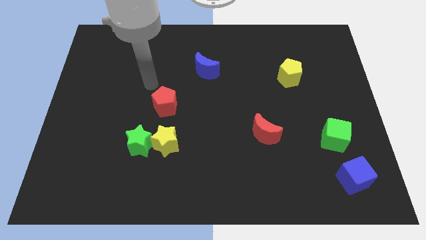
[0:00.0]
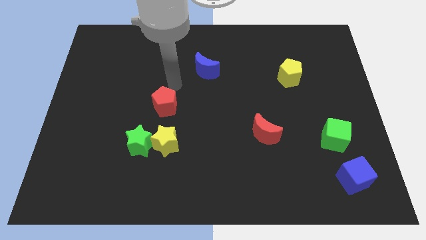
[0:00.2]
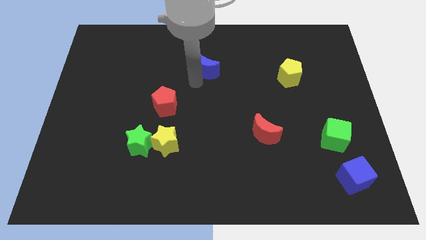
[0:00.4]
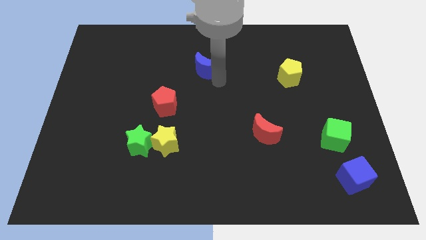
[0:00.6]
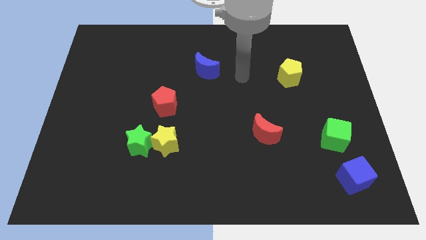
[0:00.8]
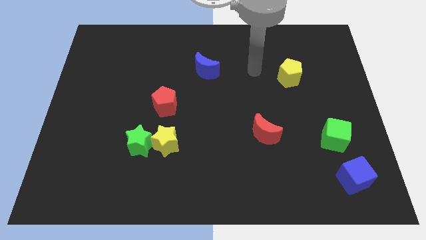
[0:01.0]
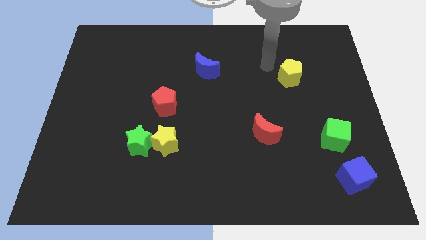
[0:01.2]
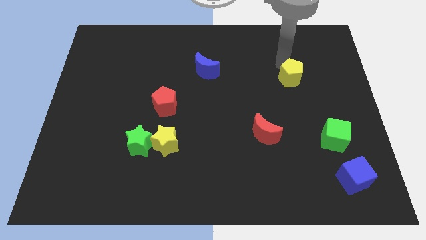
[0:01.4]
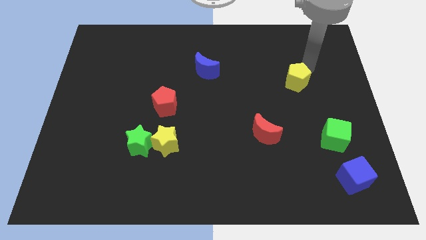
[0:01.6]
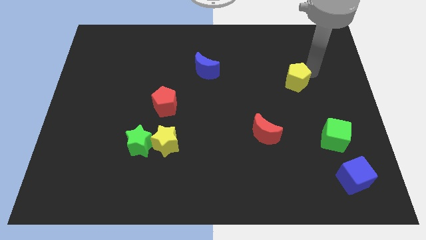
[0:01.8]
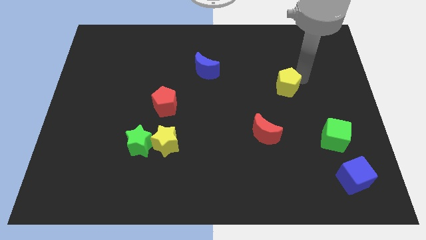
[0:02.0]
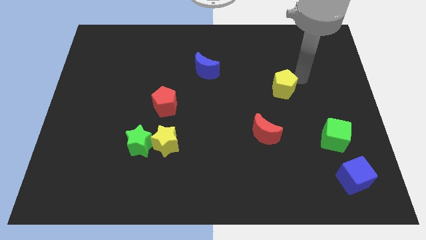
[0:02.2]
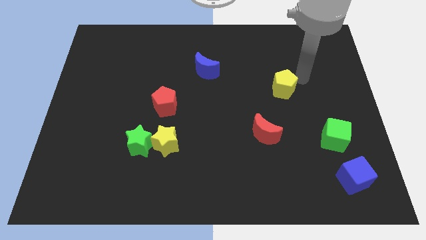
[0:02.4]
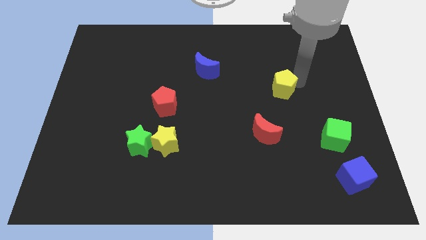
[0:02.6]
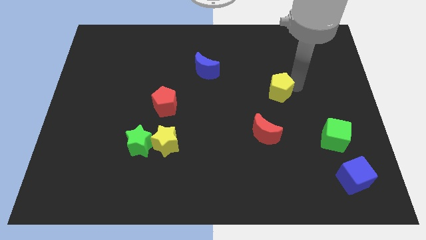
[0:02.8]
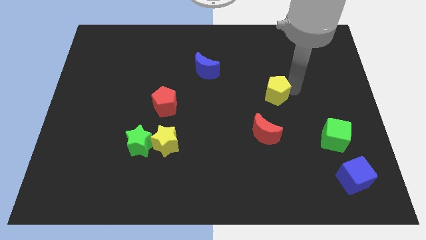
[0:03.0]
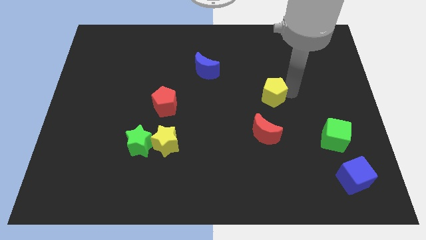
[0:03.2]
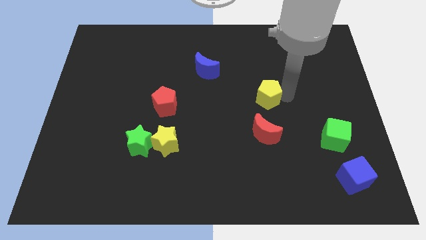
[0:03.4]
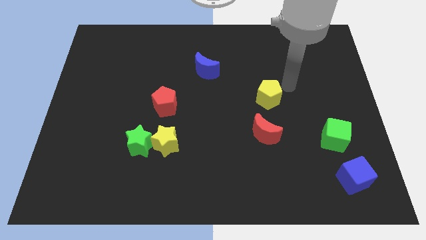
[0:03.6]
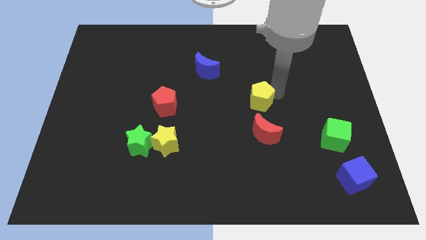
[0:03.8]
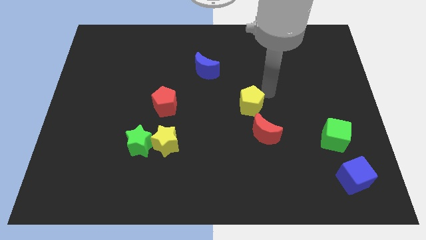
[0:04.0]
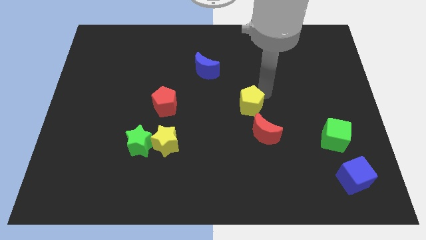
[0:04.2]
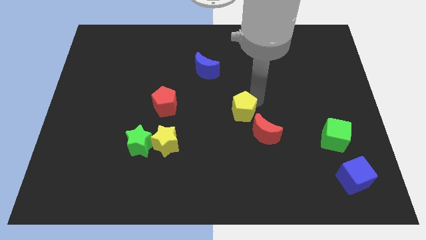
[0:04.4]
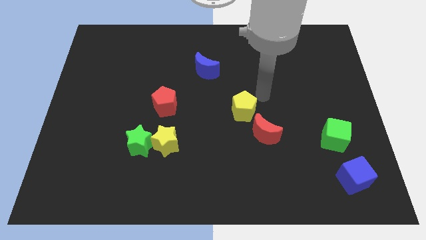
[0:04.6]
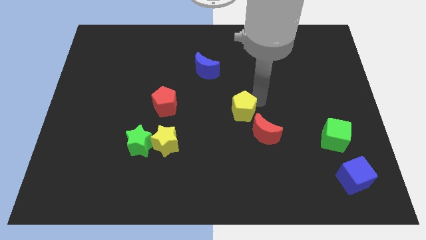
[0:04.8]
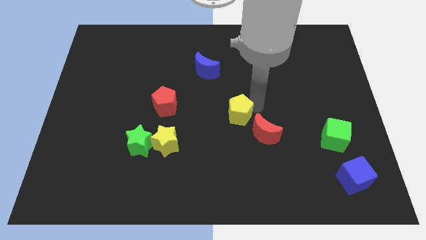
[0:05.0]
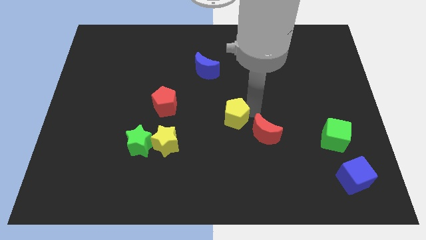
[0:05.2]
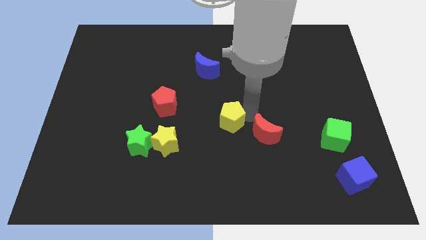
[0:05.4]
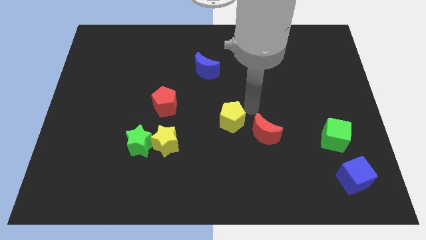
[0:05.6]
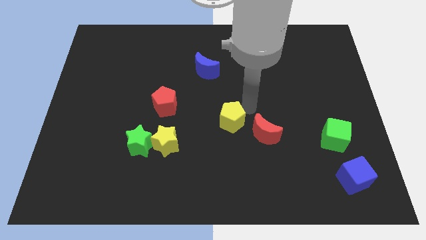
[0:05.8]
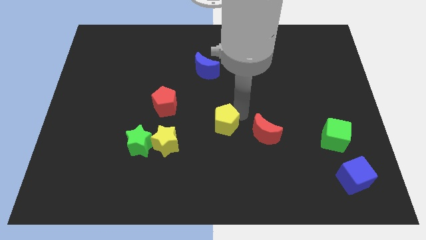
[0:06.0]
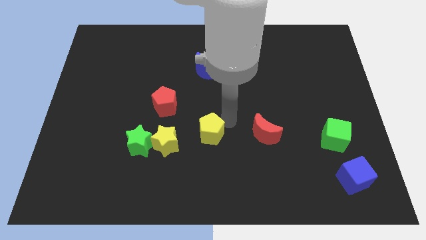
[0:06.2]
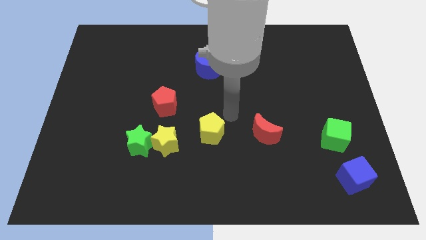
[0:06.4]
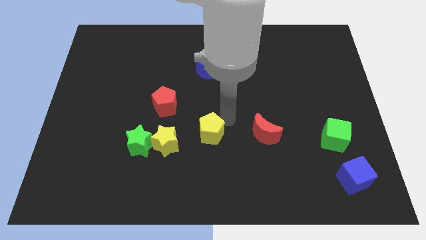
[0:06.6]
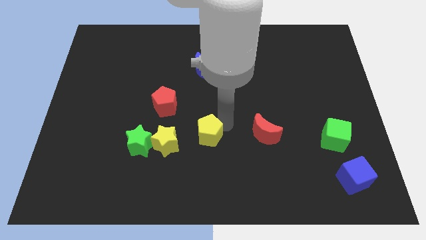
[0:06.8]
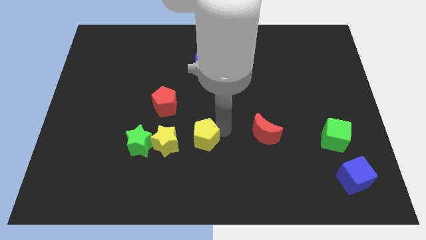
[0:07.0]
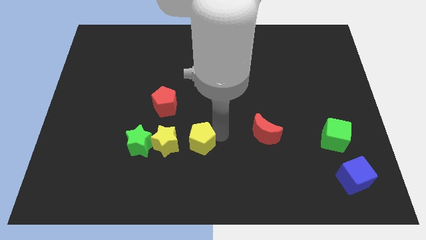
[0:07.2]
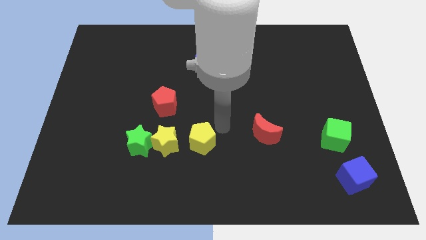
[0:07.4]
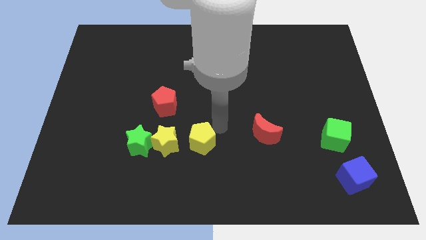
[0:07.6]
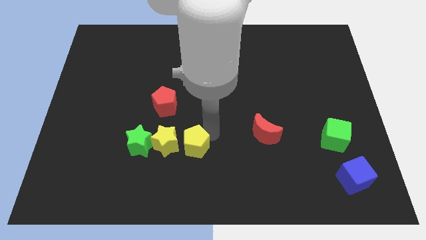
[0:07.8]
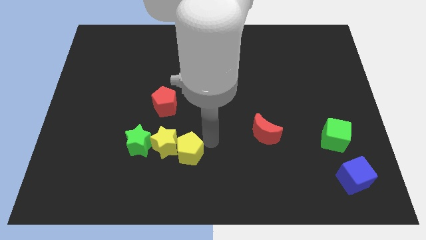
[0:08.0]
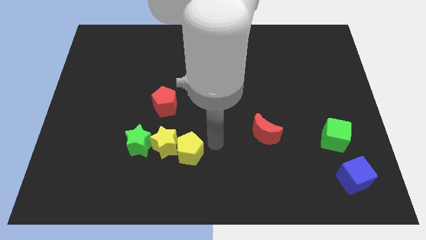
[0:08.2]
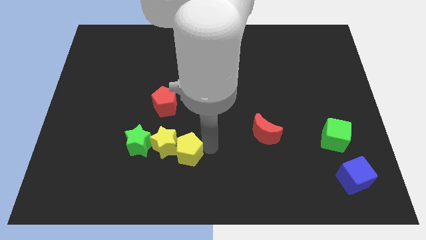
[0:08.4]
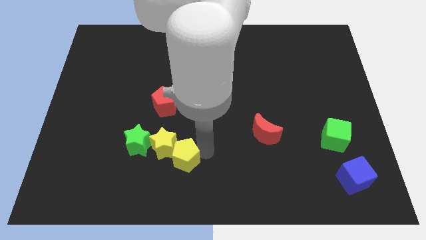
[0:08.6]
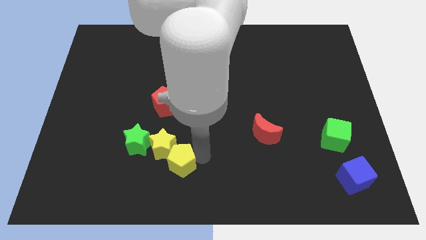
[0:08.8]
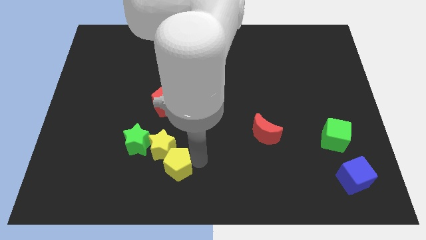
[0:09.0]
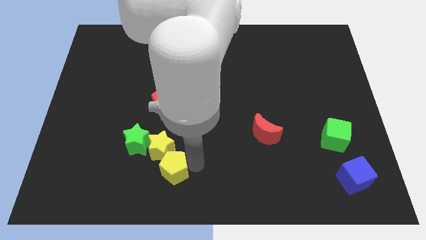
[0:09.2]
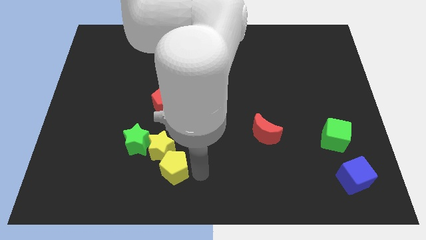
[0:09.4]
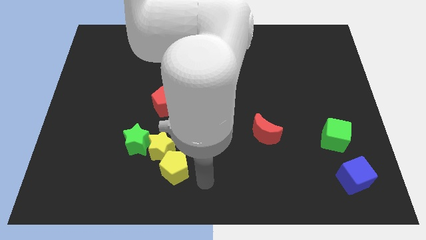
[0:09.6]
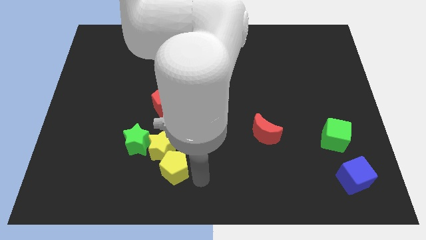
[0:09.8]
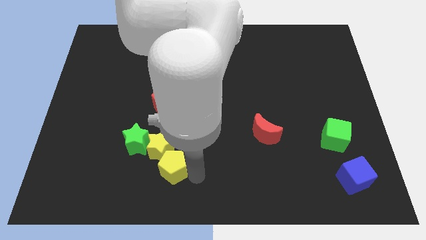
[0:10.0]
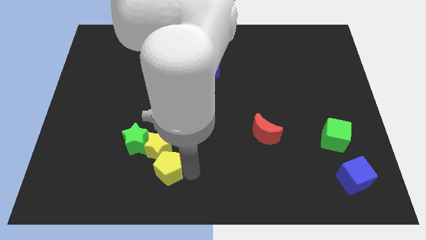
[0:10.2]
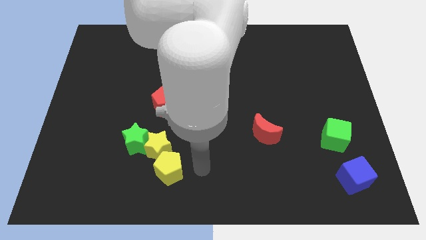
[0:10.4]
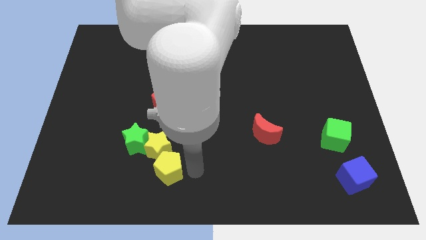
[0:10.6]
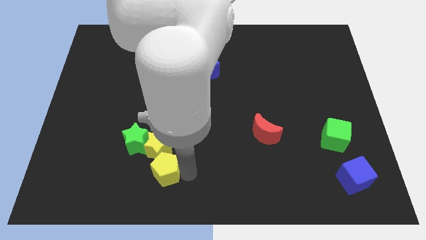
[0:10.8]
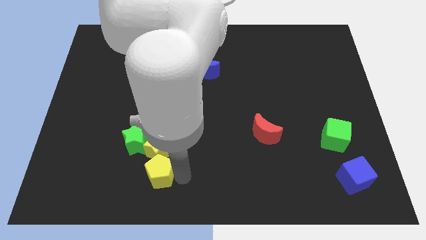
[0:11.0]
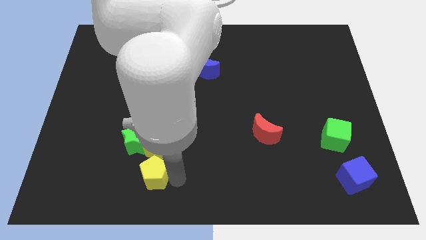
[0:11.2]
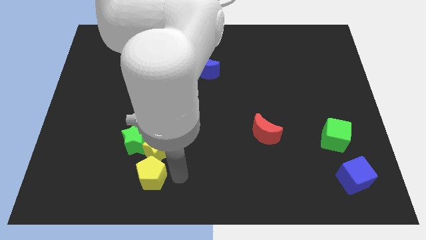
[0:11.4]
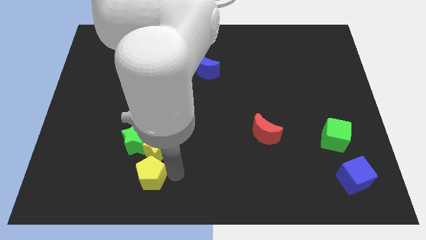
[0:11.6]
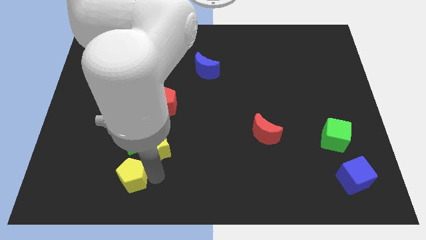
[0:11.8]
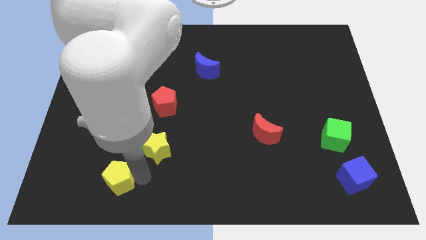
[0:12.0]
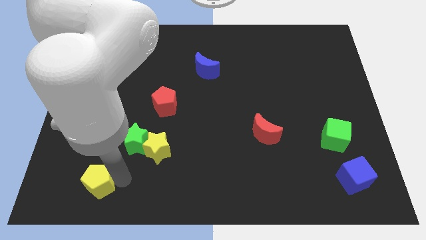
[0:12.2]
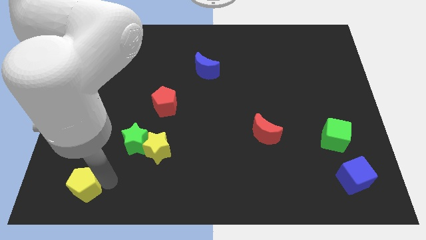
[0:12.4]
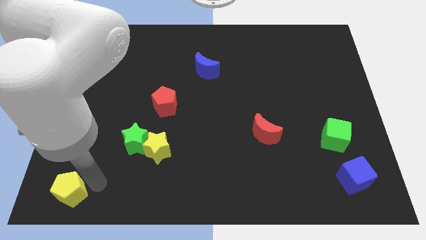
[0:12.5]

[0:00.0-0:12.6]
slide the yellow pentagon to the bottom left corner
